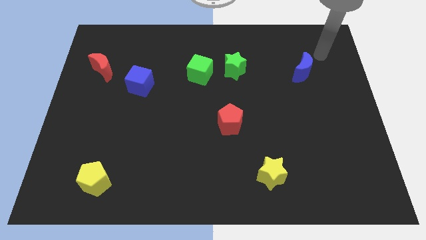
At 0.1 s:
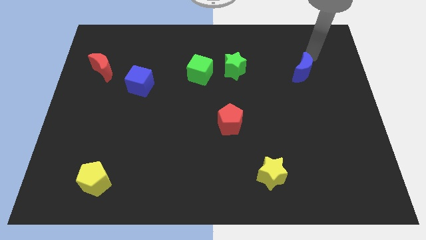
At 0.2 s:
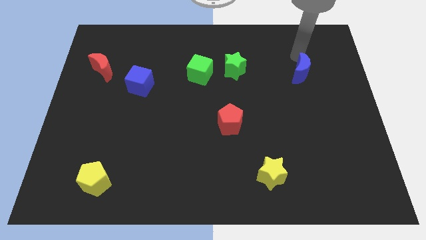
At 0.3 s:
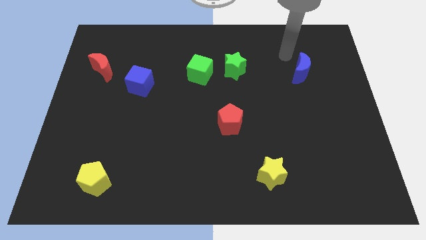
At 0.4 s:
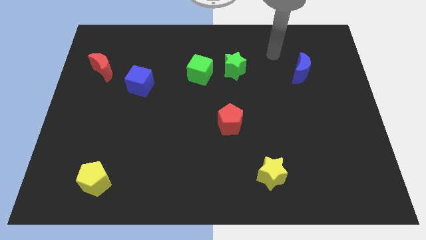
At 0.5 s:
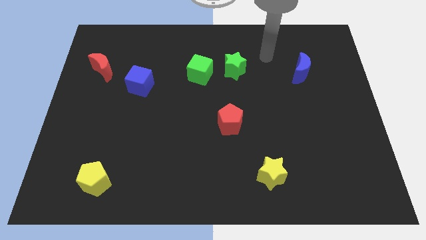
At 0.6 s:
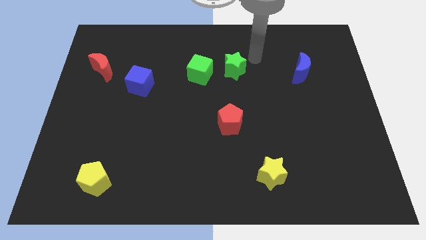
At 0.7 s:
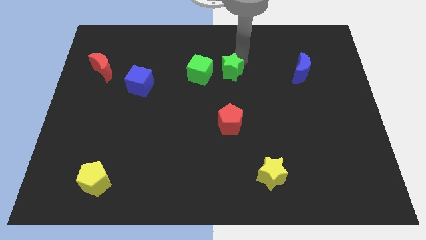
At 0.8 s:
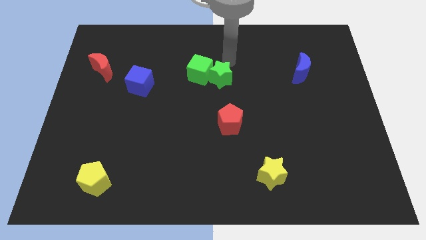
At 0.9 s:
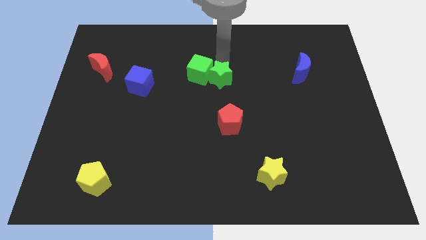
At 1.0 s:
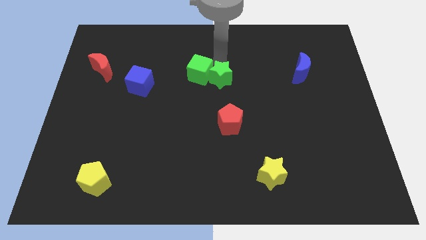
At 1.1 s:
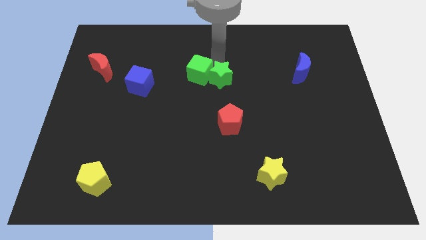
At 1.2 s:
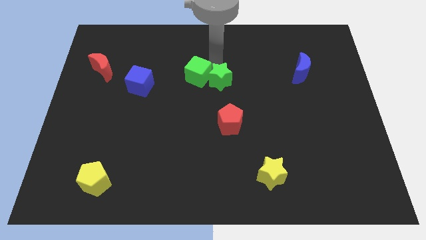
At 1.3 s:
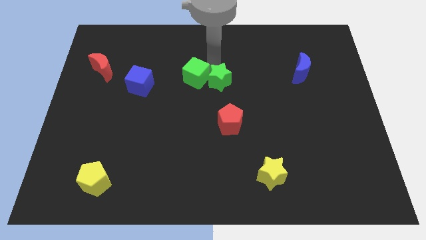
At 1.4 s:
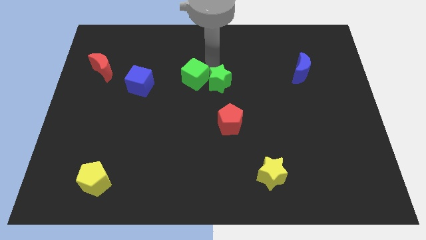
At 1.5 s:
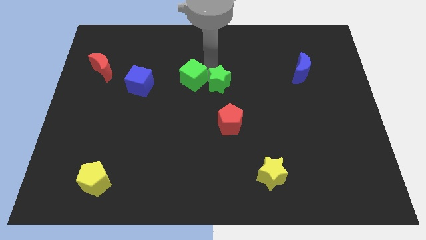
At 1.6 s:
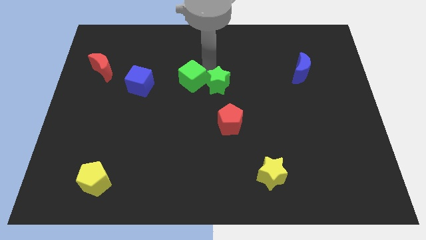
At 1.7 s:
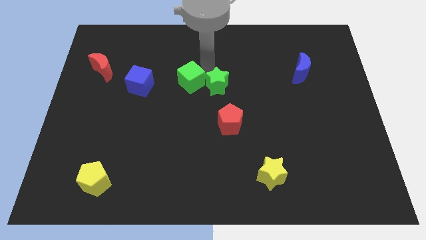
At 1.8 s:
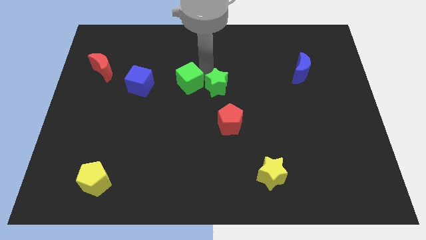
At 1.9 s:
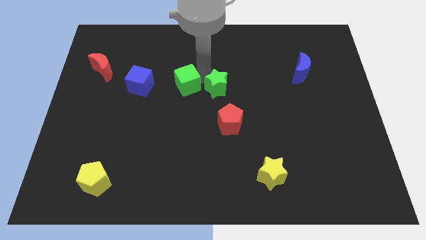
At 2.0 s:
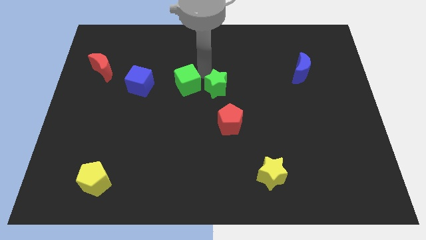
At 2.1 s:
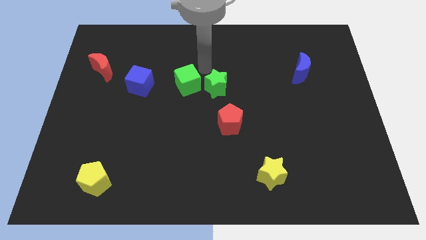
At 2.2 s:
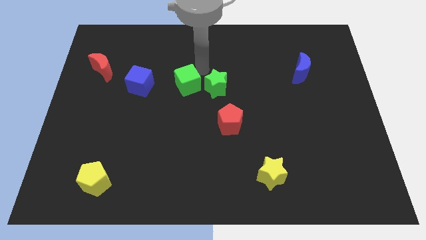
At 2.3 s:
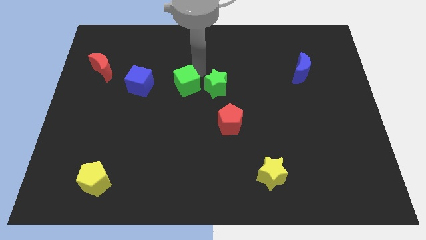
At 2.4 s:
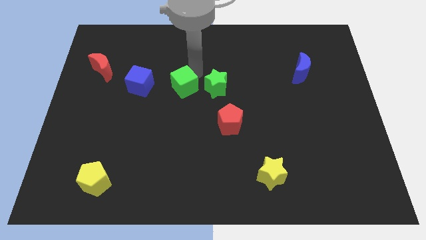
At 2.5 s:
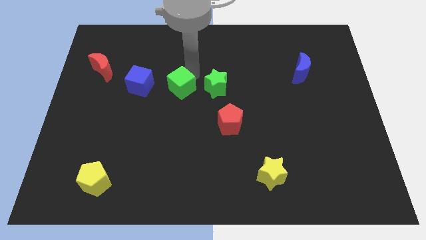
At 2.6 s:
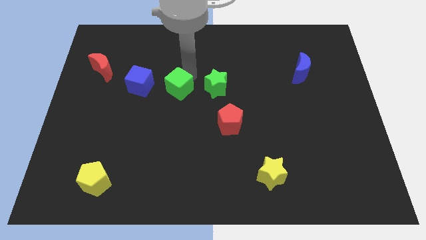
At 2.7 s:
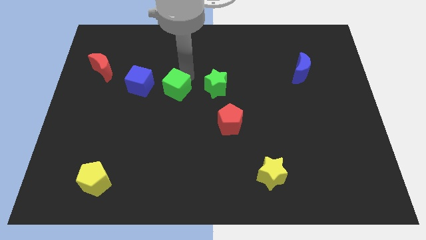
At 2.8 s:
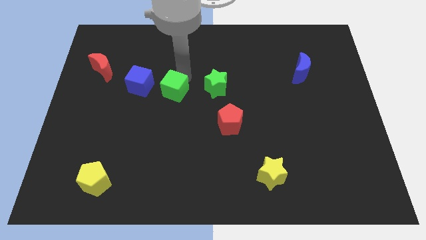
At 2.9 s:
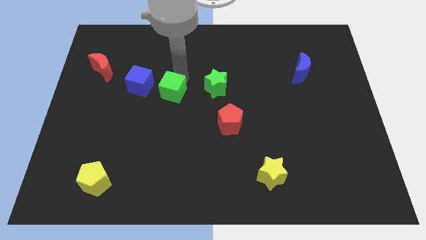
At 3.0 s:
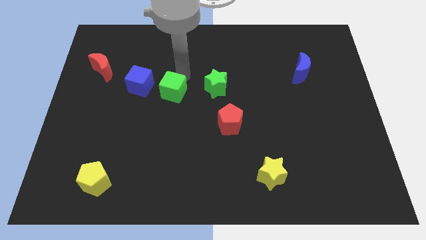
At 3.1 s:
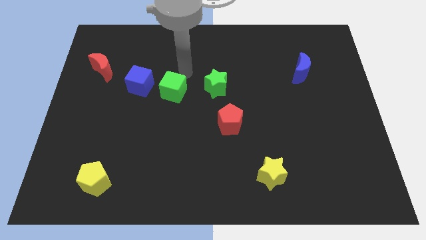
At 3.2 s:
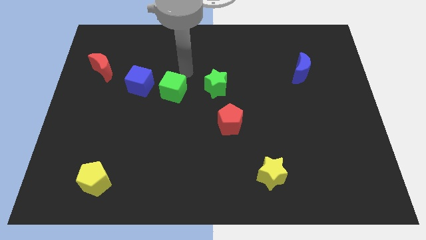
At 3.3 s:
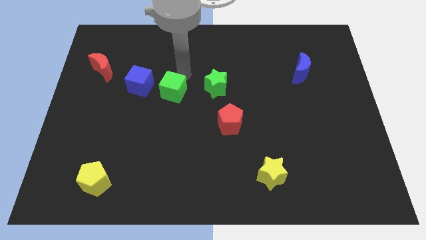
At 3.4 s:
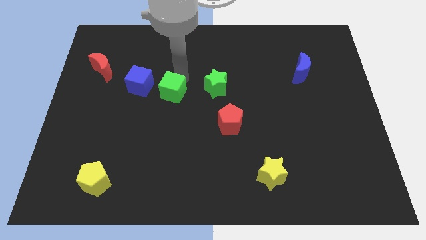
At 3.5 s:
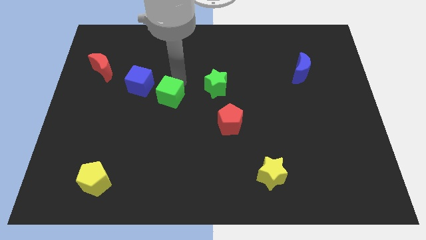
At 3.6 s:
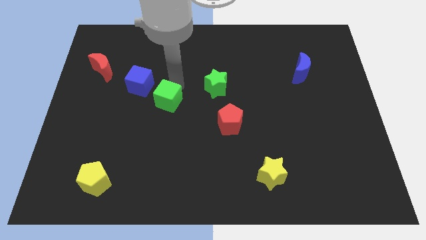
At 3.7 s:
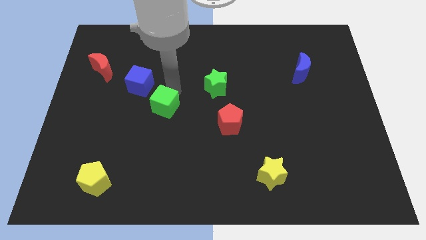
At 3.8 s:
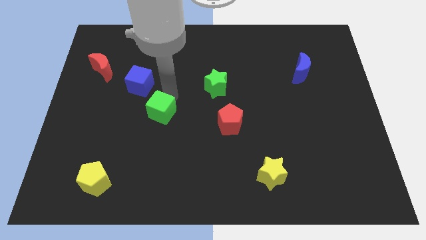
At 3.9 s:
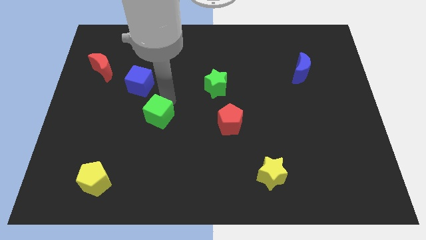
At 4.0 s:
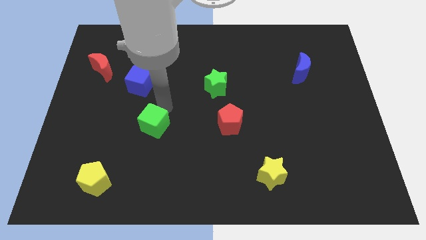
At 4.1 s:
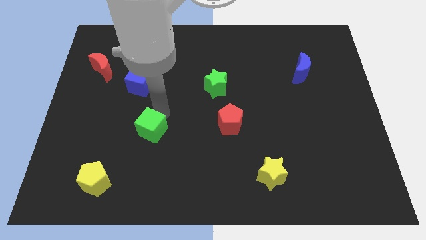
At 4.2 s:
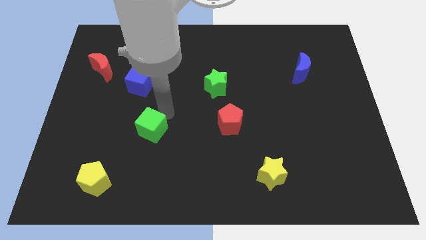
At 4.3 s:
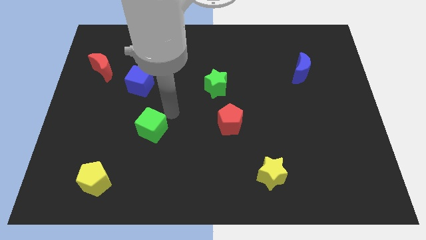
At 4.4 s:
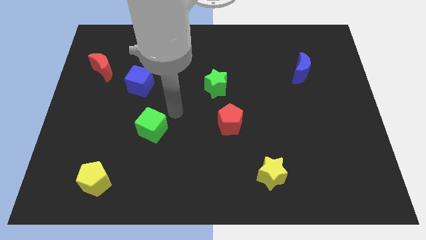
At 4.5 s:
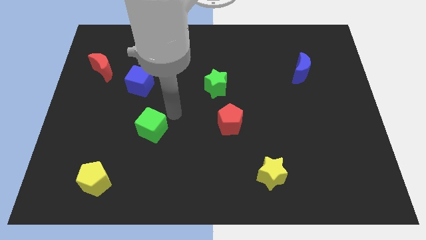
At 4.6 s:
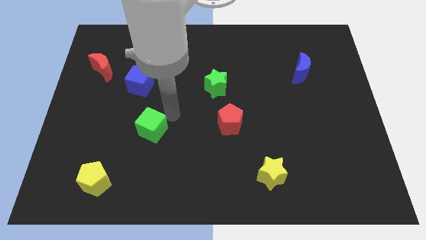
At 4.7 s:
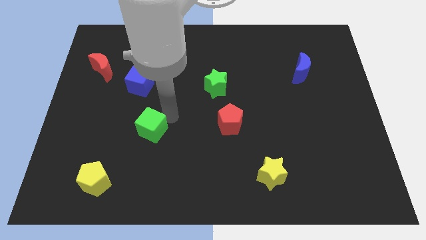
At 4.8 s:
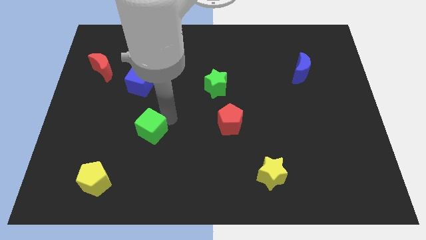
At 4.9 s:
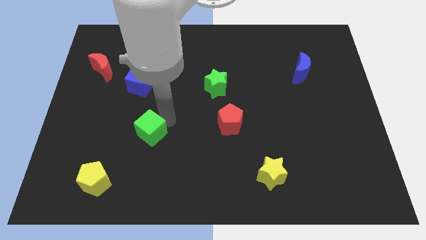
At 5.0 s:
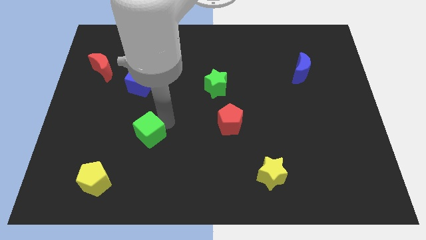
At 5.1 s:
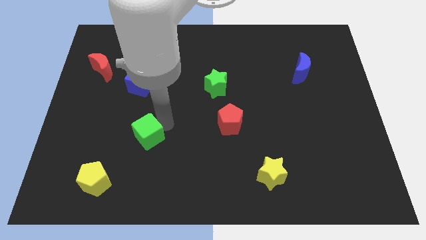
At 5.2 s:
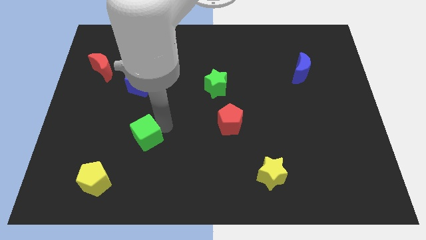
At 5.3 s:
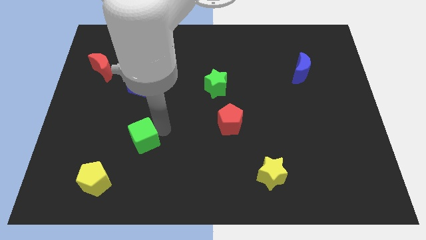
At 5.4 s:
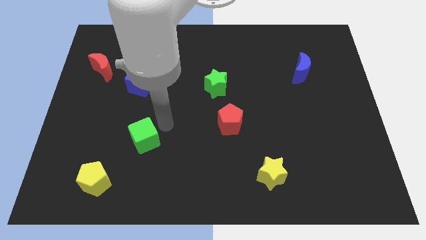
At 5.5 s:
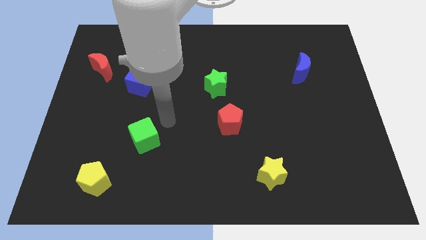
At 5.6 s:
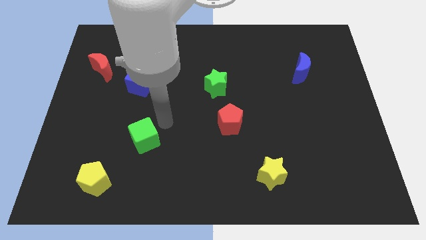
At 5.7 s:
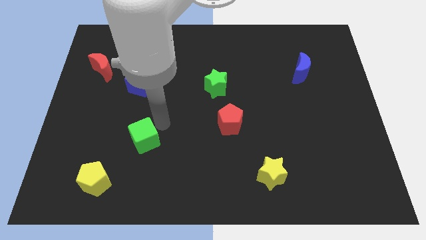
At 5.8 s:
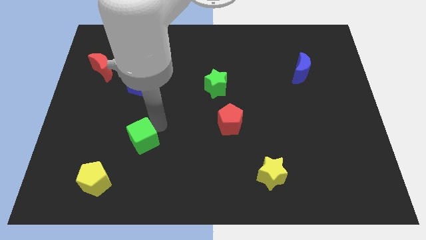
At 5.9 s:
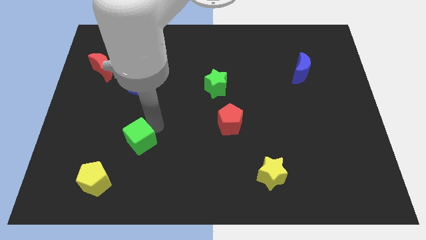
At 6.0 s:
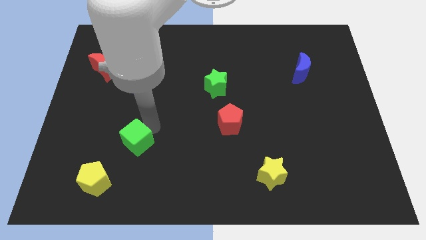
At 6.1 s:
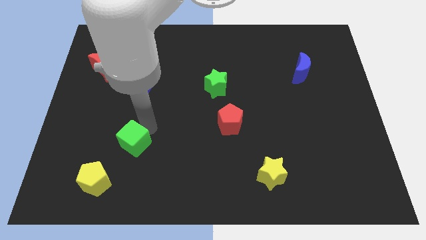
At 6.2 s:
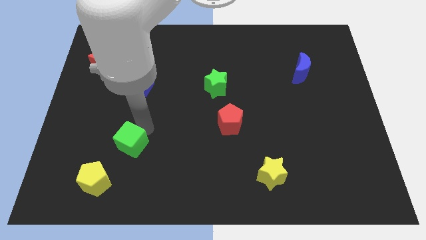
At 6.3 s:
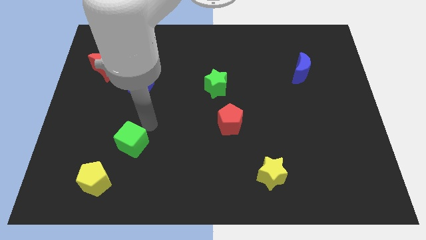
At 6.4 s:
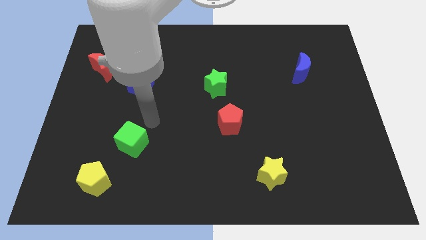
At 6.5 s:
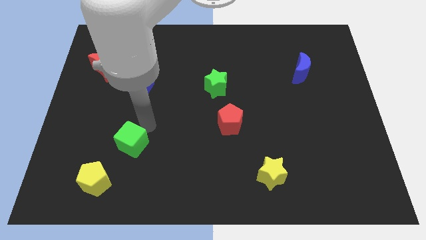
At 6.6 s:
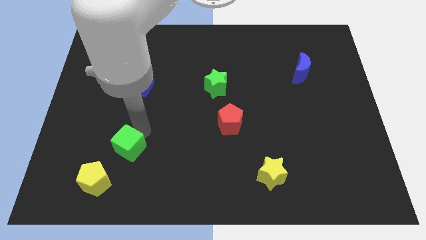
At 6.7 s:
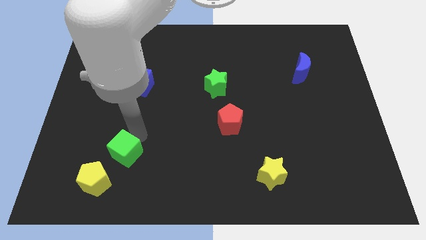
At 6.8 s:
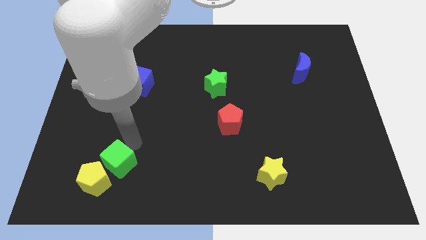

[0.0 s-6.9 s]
push the green cube close to the yellow pentagon

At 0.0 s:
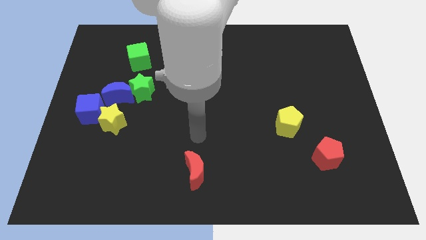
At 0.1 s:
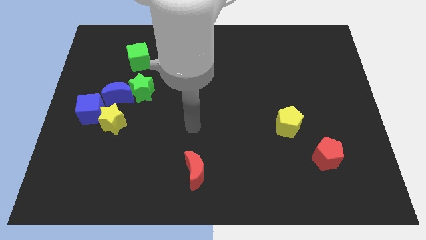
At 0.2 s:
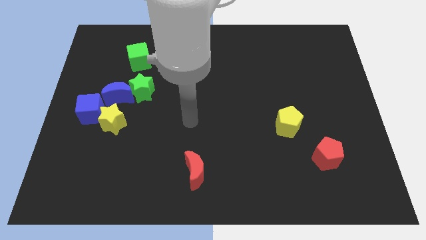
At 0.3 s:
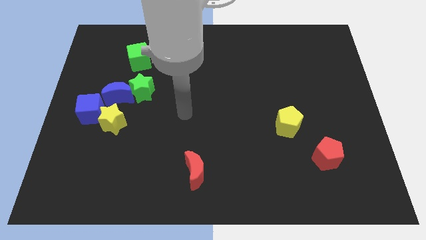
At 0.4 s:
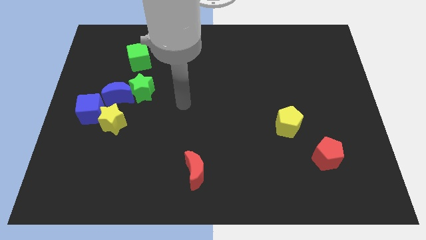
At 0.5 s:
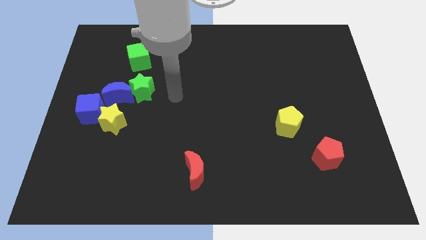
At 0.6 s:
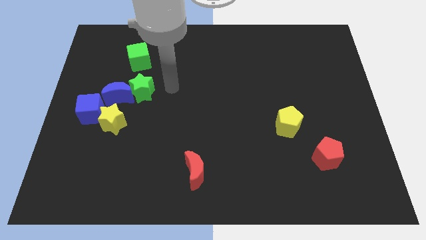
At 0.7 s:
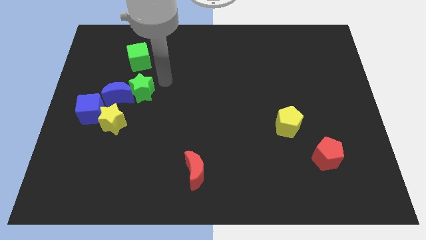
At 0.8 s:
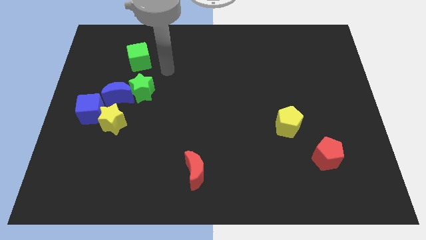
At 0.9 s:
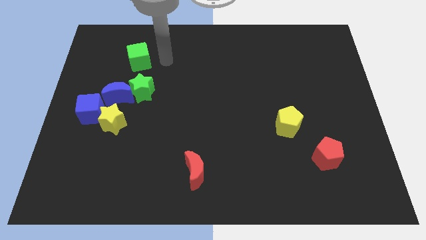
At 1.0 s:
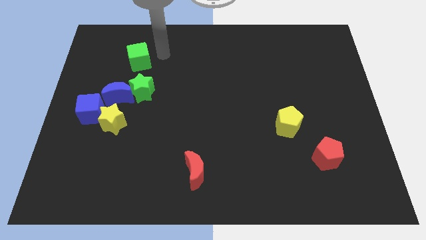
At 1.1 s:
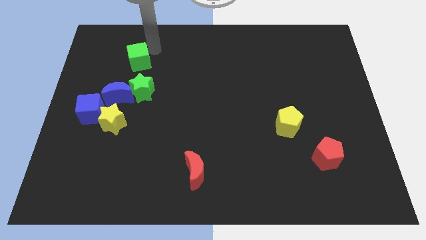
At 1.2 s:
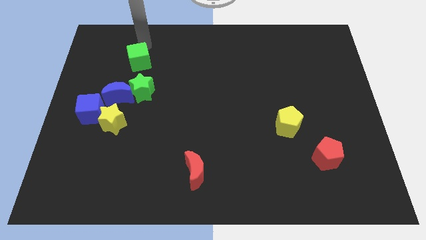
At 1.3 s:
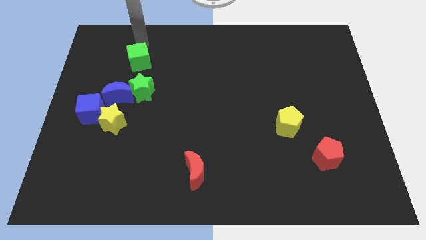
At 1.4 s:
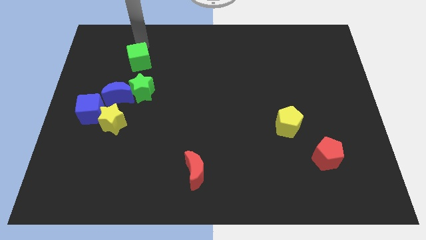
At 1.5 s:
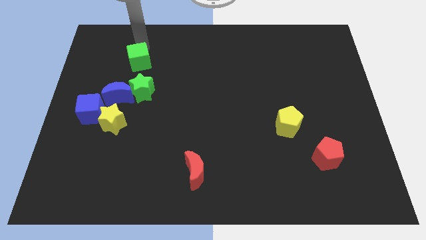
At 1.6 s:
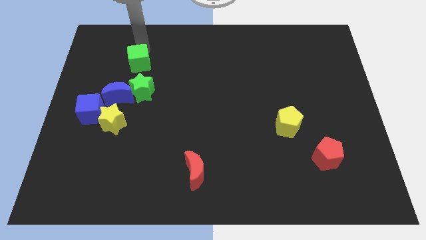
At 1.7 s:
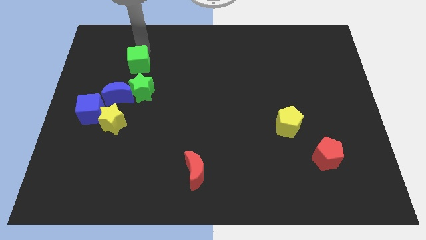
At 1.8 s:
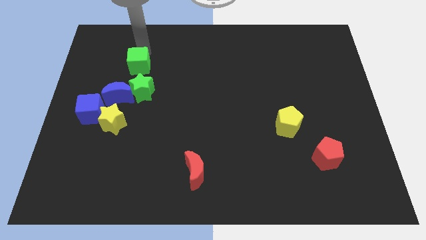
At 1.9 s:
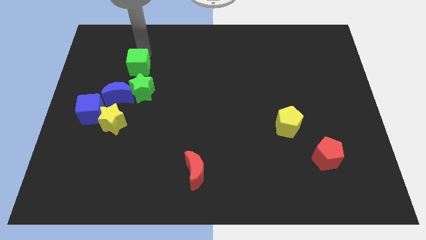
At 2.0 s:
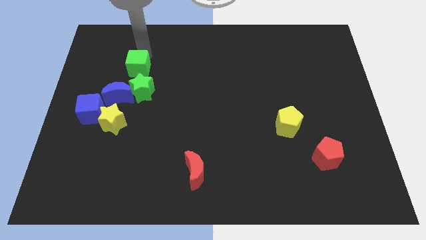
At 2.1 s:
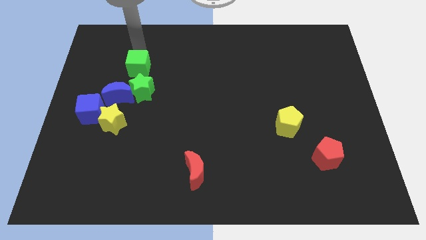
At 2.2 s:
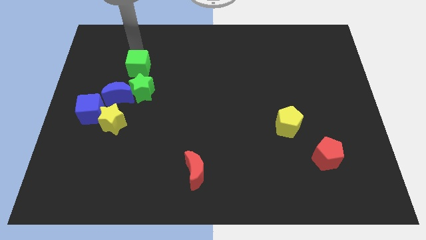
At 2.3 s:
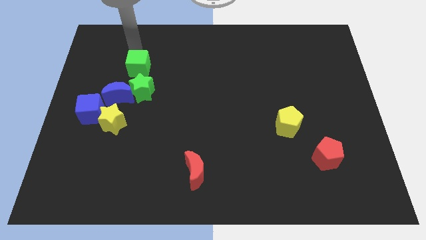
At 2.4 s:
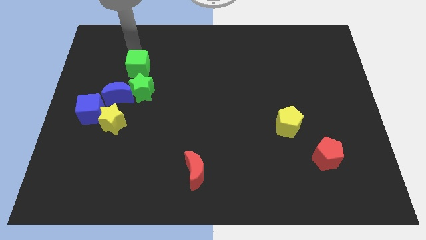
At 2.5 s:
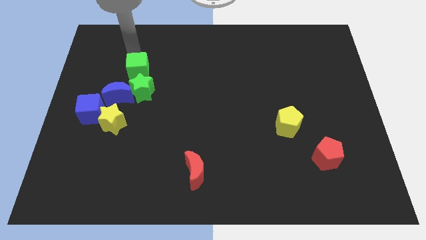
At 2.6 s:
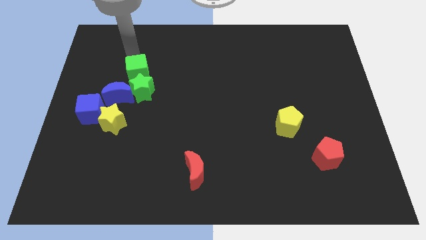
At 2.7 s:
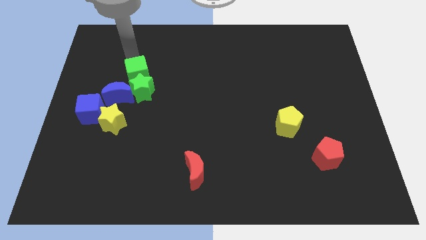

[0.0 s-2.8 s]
push the green cube towards the green star
